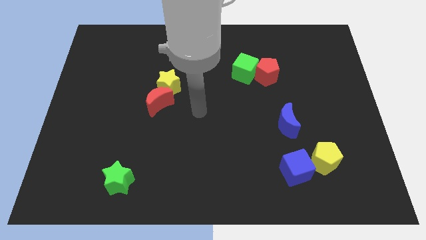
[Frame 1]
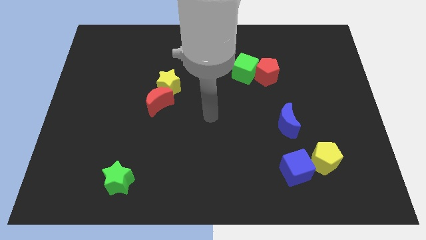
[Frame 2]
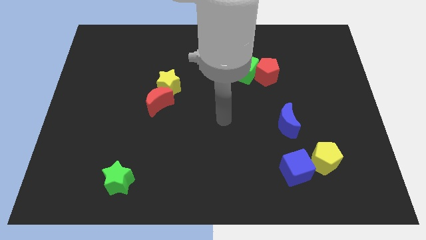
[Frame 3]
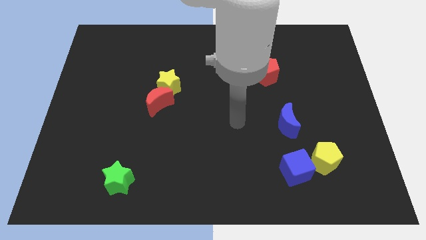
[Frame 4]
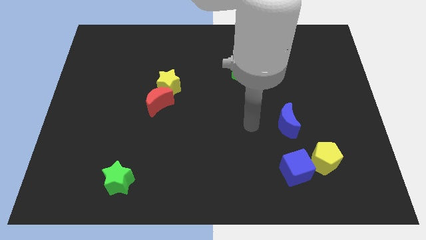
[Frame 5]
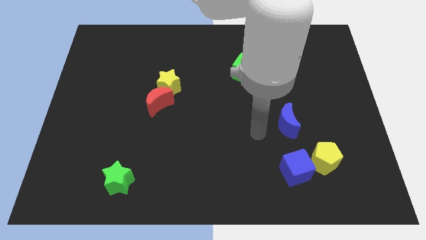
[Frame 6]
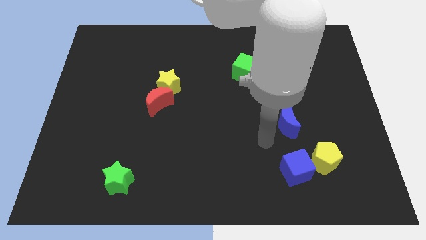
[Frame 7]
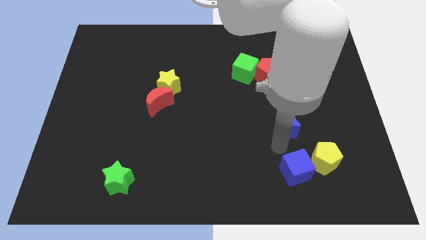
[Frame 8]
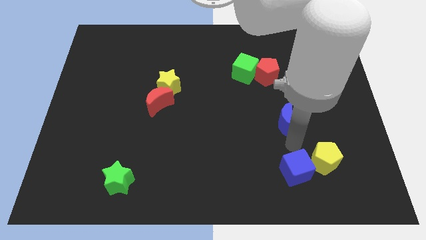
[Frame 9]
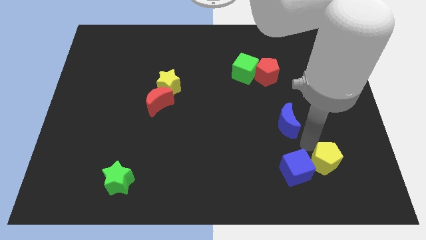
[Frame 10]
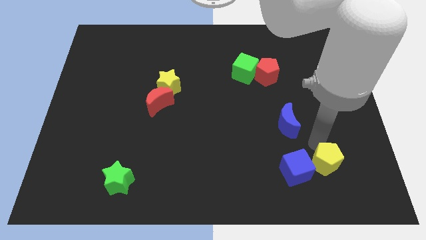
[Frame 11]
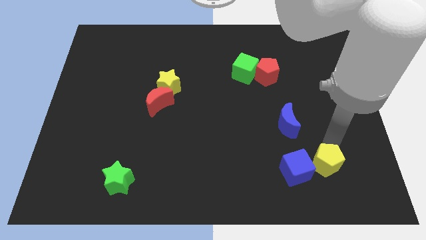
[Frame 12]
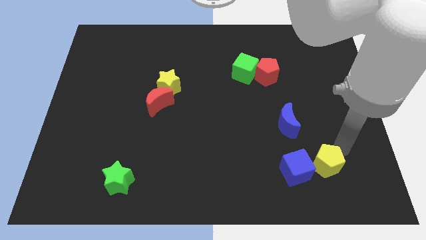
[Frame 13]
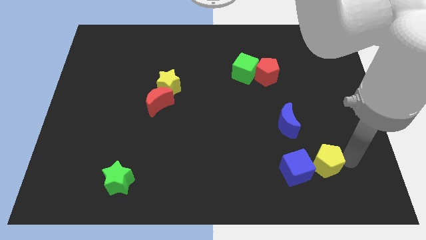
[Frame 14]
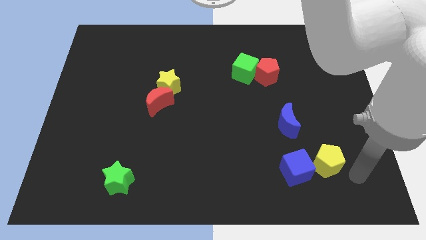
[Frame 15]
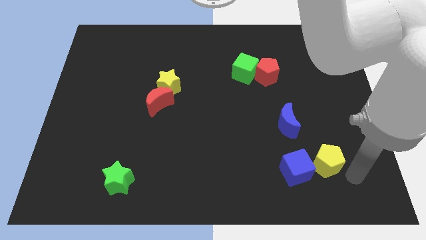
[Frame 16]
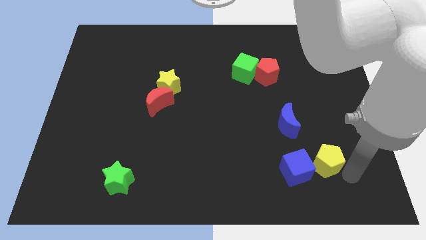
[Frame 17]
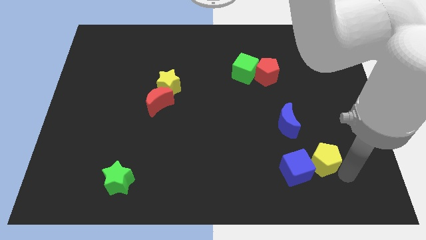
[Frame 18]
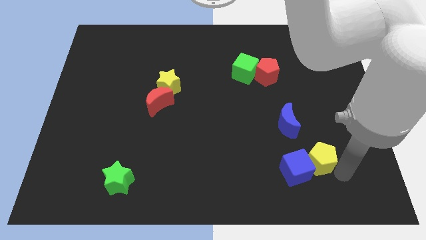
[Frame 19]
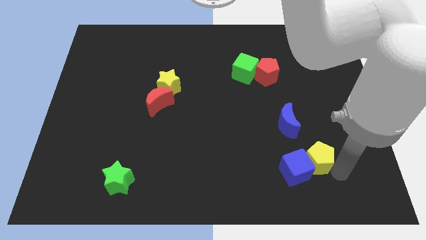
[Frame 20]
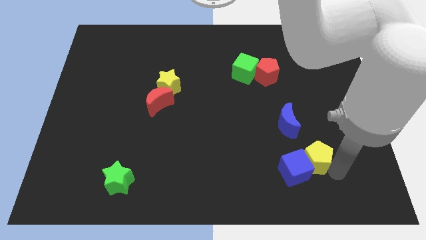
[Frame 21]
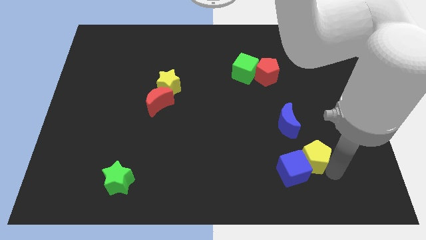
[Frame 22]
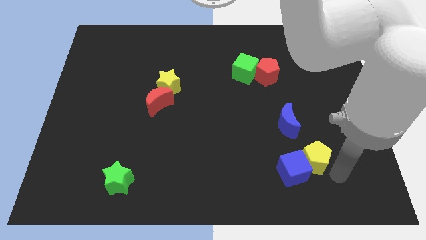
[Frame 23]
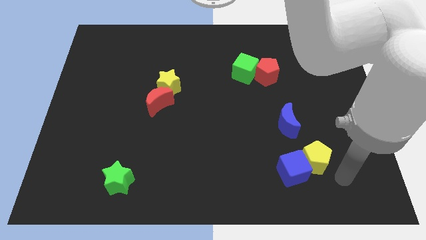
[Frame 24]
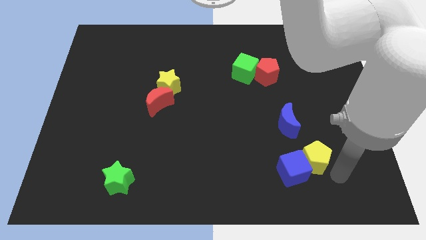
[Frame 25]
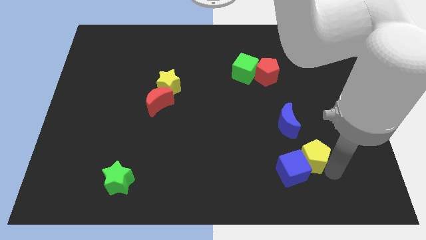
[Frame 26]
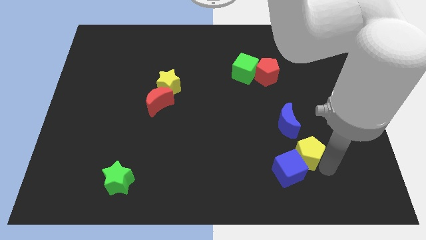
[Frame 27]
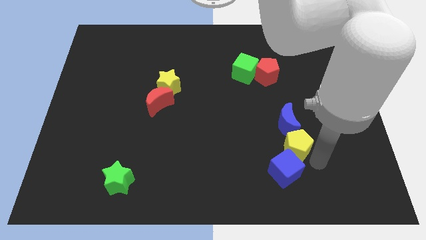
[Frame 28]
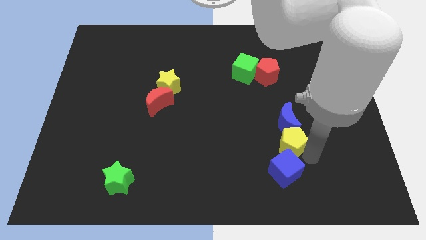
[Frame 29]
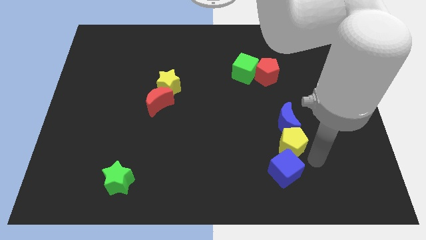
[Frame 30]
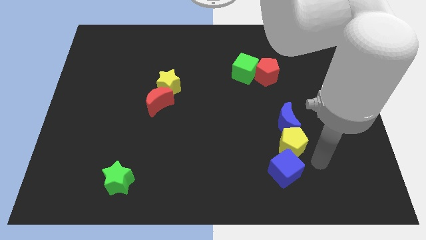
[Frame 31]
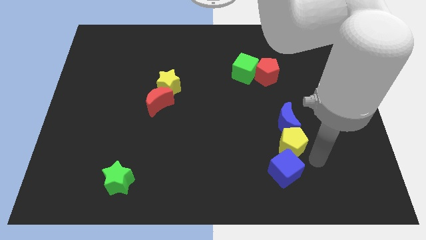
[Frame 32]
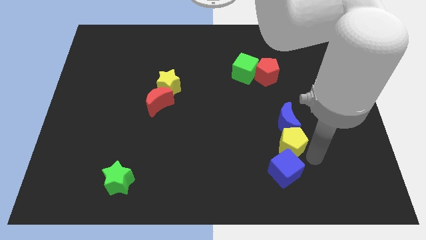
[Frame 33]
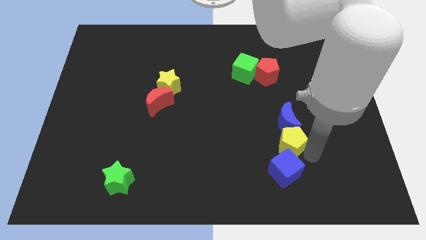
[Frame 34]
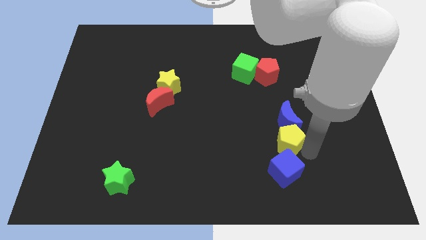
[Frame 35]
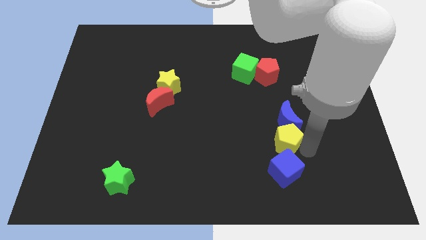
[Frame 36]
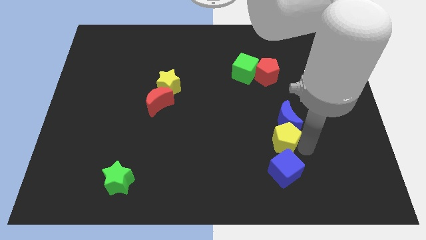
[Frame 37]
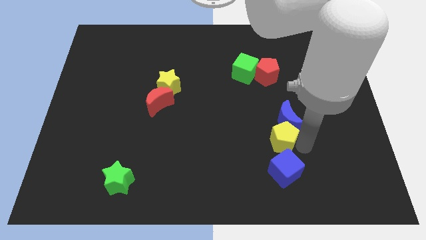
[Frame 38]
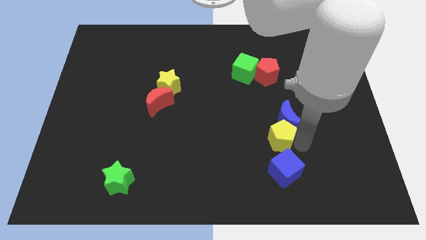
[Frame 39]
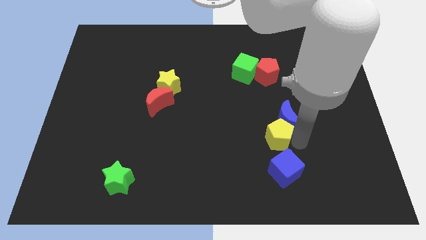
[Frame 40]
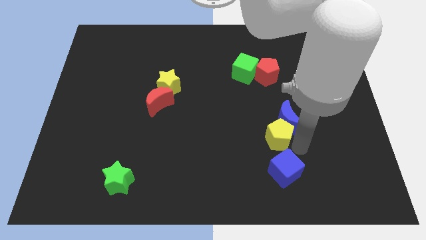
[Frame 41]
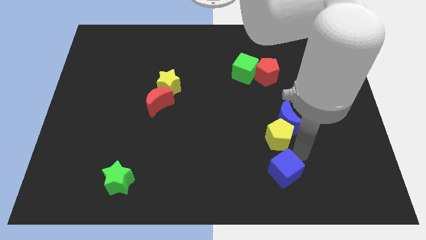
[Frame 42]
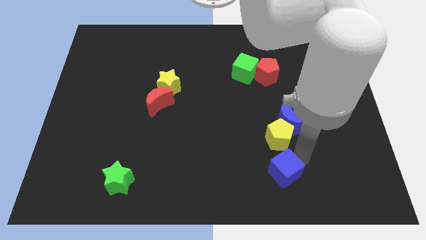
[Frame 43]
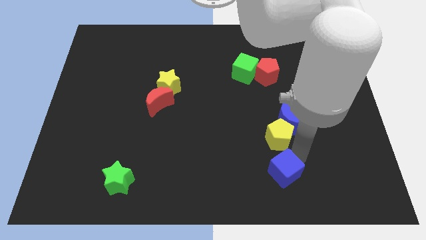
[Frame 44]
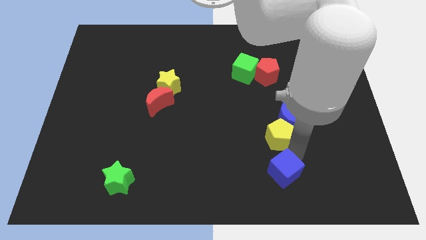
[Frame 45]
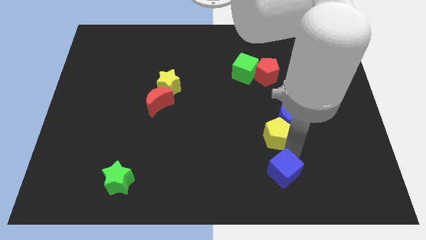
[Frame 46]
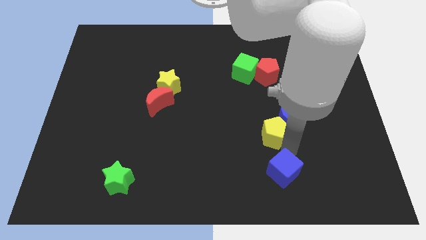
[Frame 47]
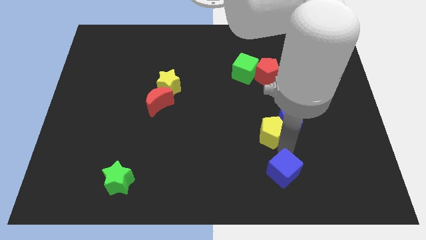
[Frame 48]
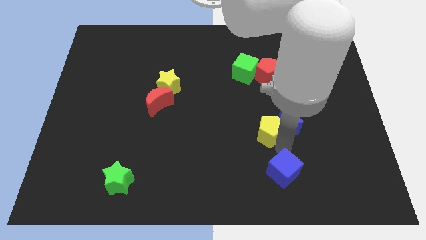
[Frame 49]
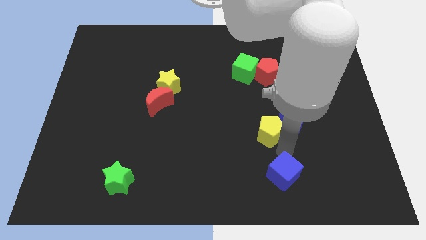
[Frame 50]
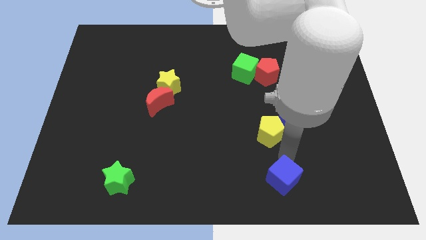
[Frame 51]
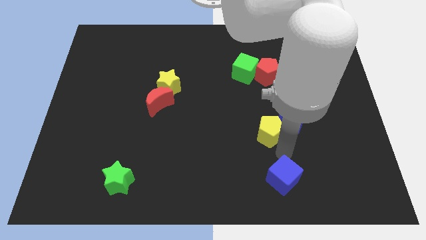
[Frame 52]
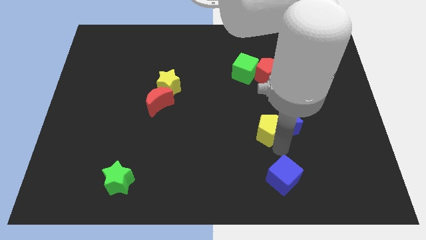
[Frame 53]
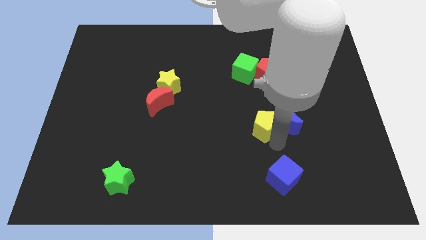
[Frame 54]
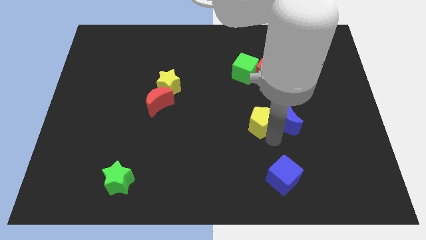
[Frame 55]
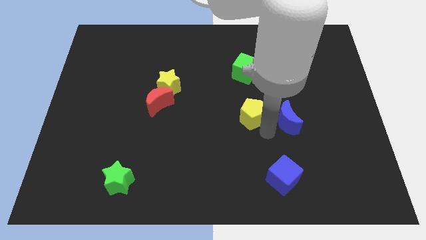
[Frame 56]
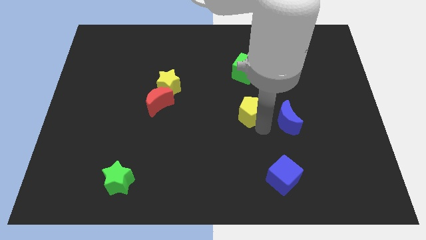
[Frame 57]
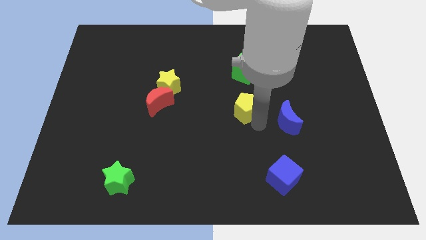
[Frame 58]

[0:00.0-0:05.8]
push the yellow pentagon up and then to the left

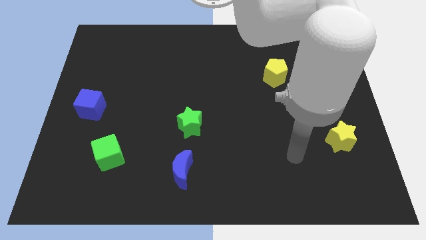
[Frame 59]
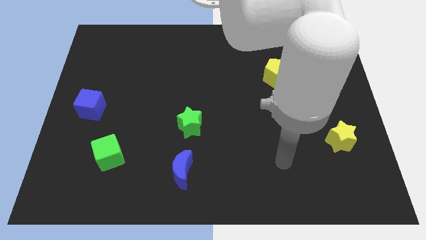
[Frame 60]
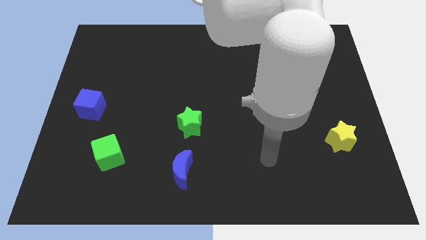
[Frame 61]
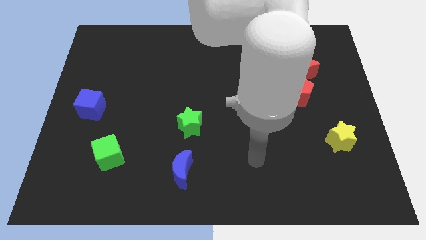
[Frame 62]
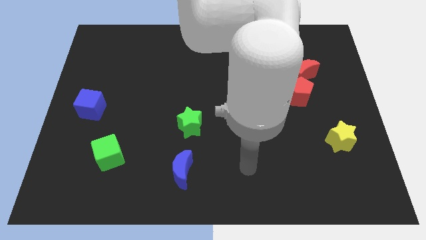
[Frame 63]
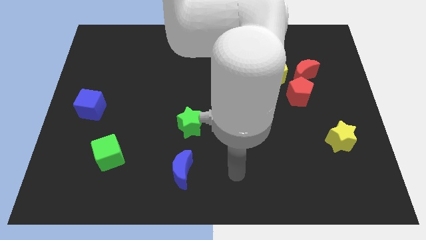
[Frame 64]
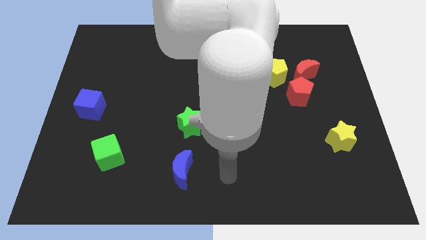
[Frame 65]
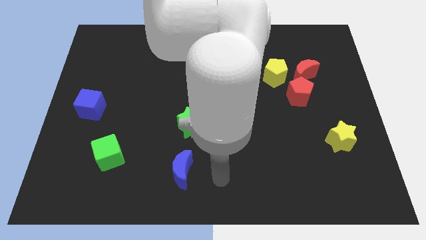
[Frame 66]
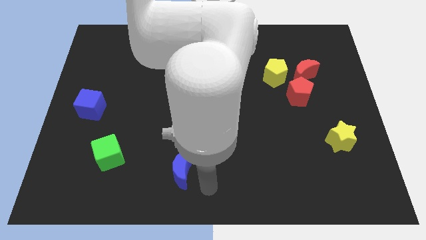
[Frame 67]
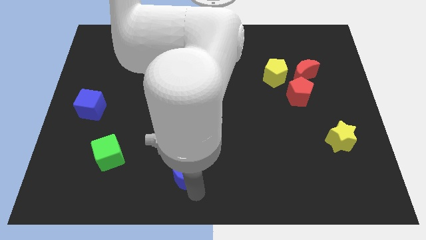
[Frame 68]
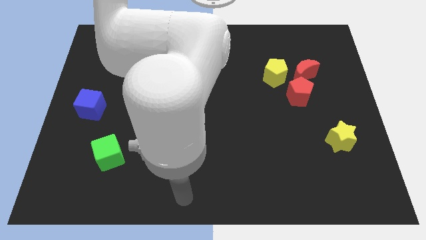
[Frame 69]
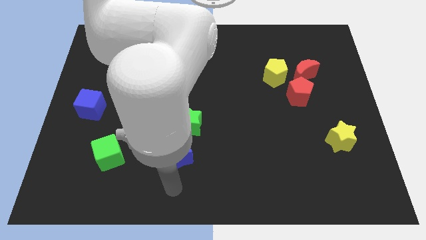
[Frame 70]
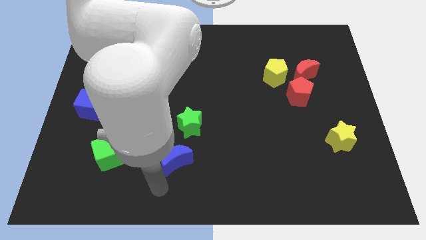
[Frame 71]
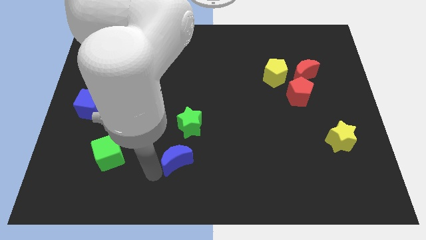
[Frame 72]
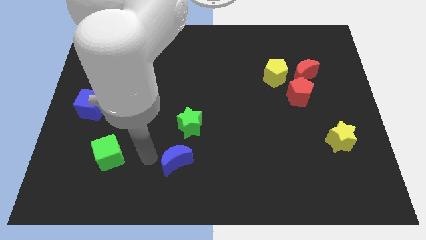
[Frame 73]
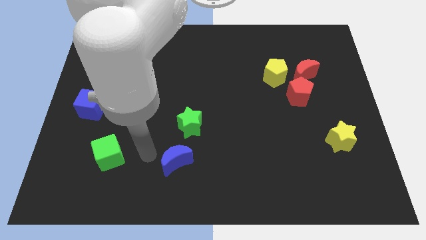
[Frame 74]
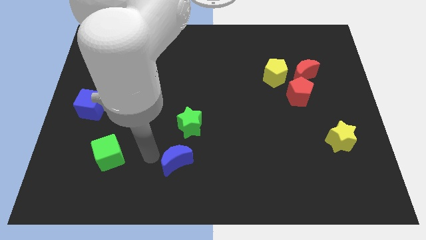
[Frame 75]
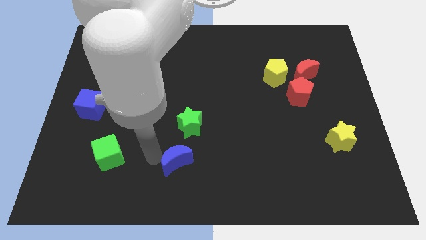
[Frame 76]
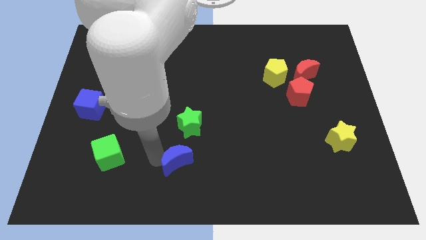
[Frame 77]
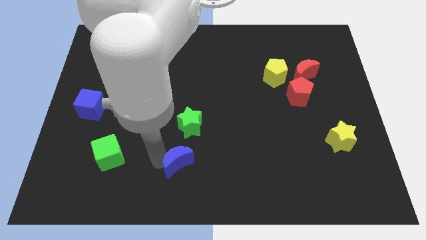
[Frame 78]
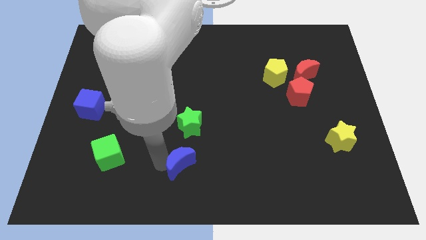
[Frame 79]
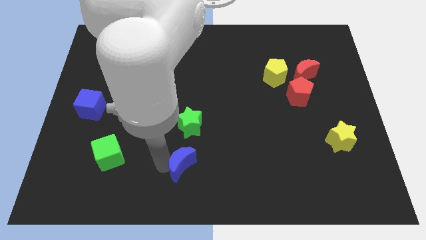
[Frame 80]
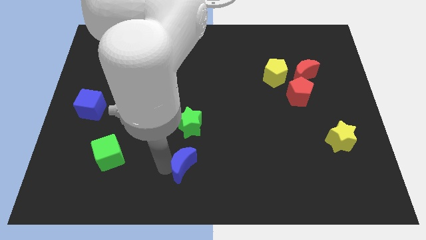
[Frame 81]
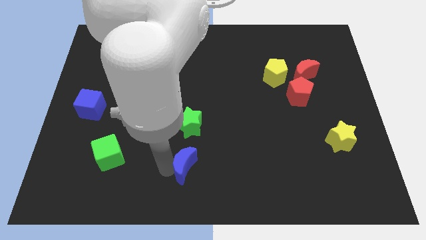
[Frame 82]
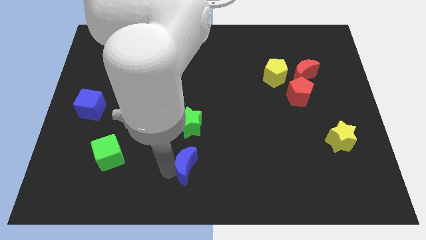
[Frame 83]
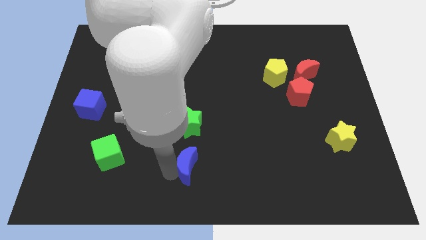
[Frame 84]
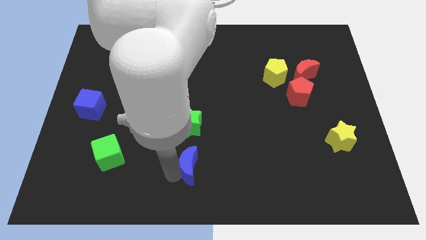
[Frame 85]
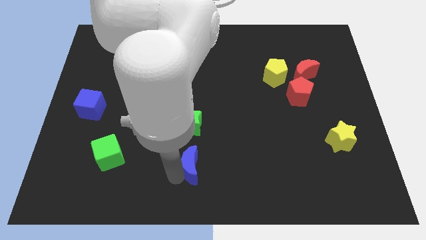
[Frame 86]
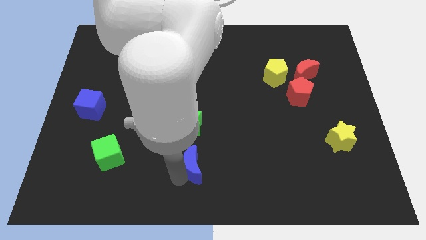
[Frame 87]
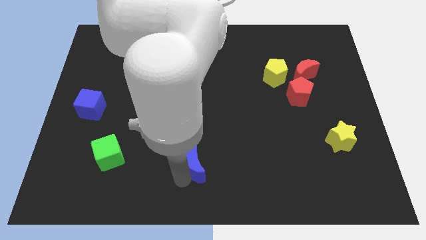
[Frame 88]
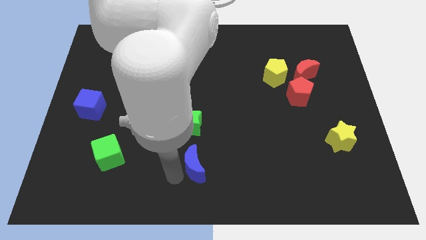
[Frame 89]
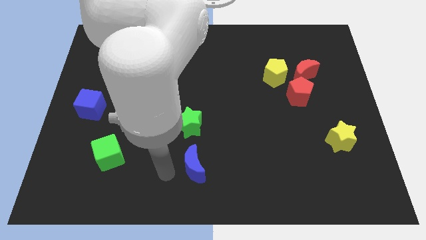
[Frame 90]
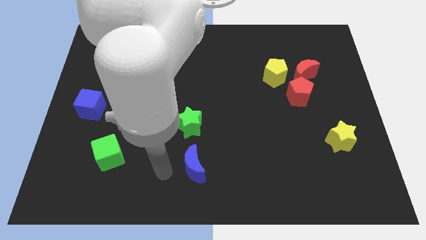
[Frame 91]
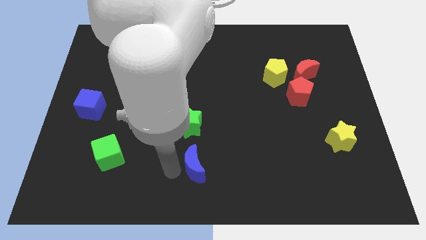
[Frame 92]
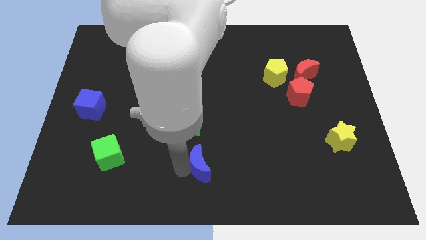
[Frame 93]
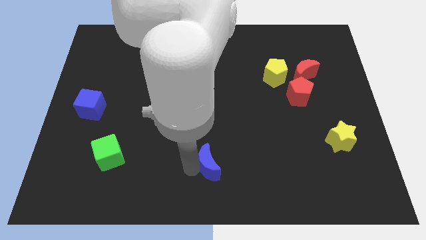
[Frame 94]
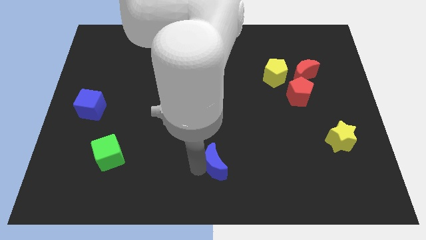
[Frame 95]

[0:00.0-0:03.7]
slide the blue moon a little right
